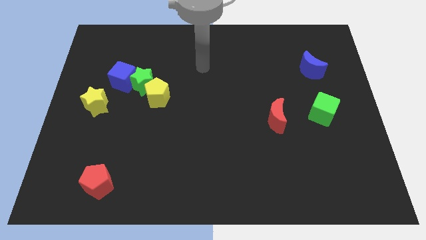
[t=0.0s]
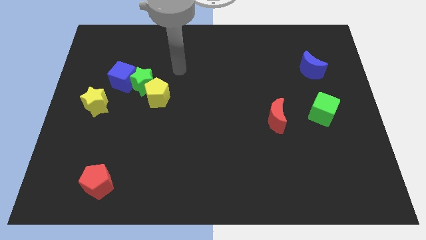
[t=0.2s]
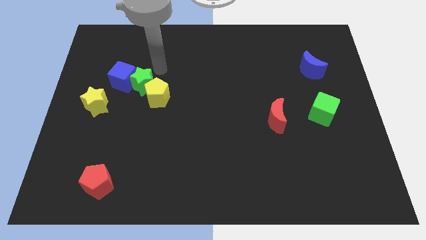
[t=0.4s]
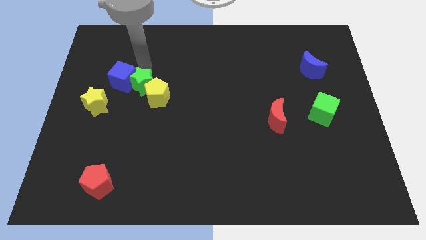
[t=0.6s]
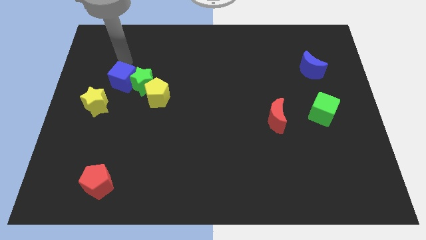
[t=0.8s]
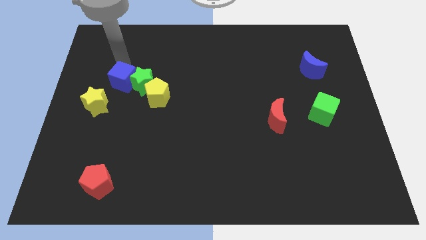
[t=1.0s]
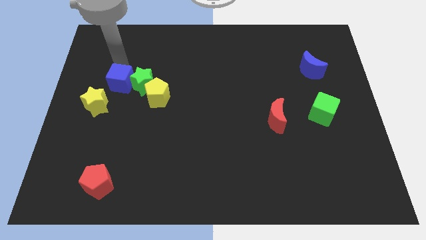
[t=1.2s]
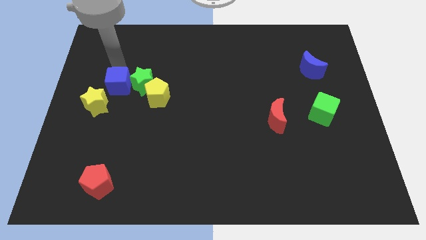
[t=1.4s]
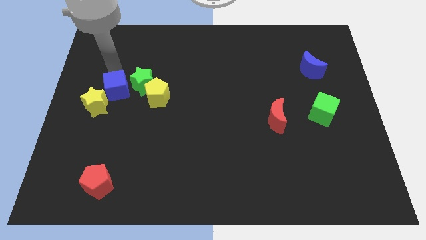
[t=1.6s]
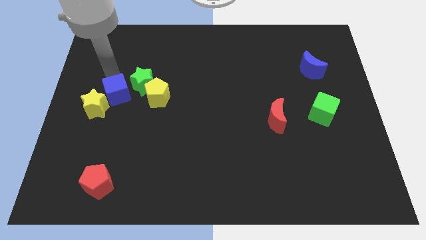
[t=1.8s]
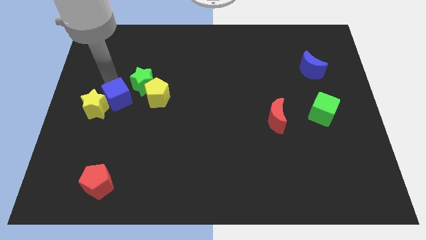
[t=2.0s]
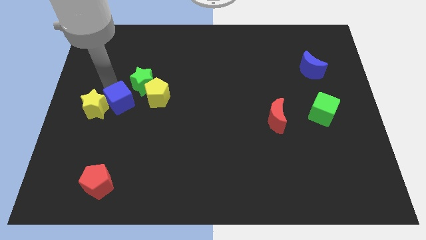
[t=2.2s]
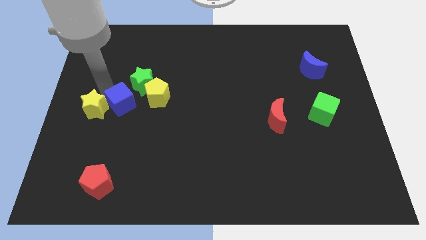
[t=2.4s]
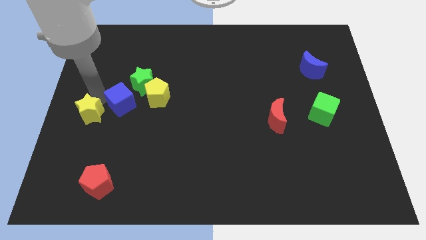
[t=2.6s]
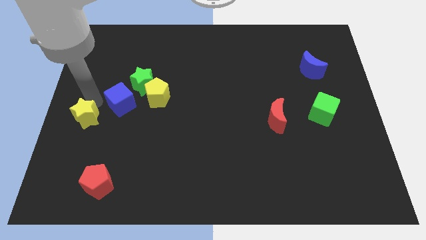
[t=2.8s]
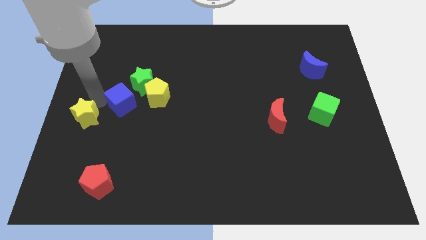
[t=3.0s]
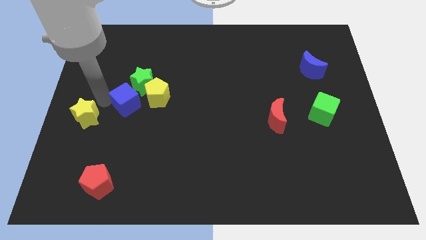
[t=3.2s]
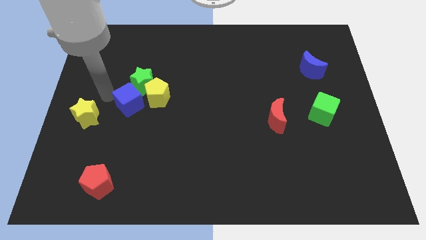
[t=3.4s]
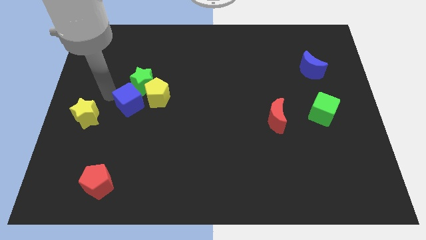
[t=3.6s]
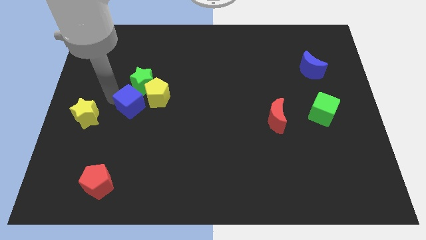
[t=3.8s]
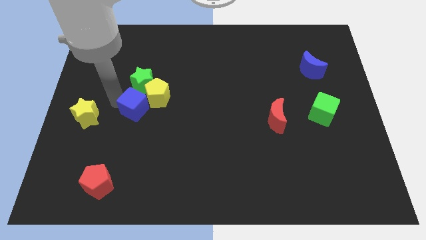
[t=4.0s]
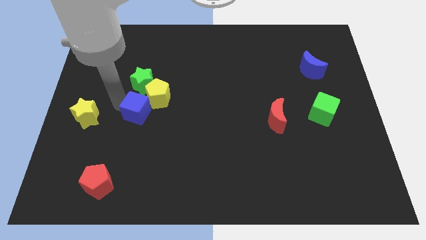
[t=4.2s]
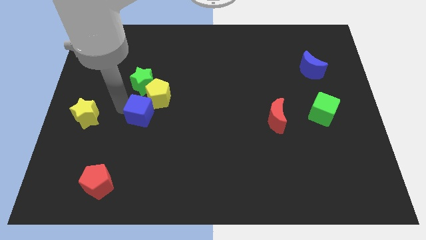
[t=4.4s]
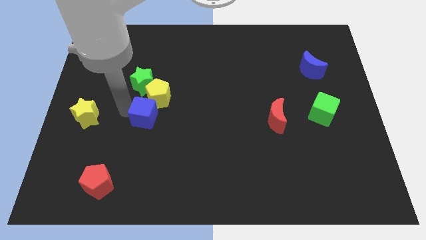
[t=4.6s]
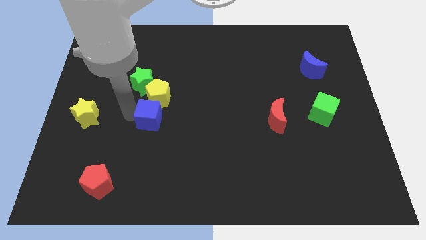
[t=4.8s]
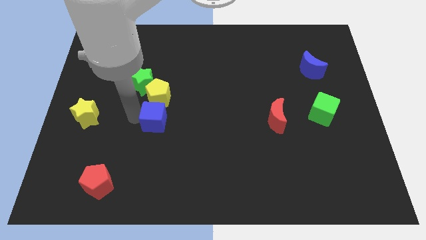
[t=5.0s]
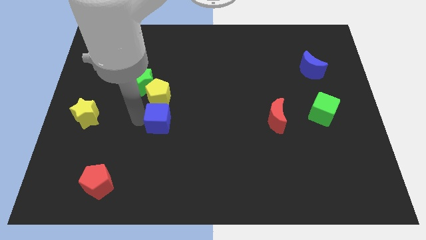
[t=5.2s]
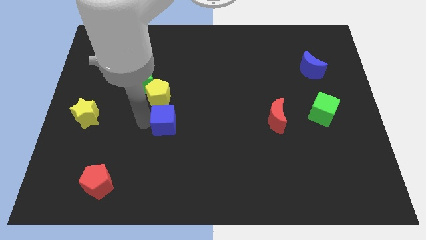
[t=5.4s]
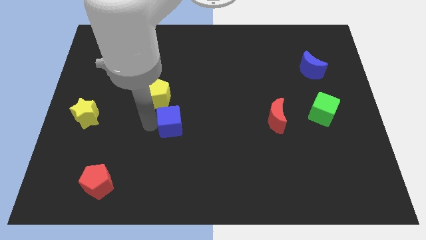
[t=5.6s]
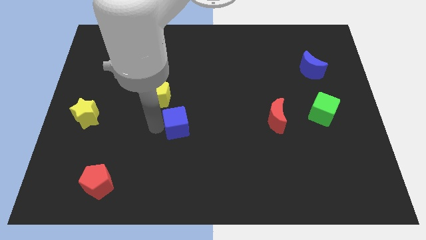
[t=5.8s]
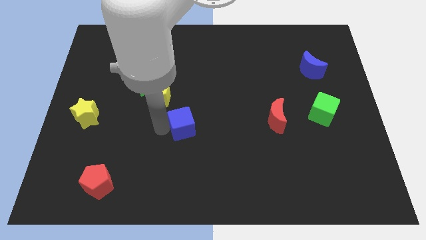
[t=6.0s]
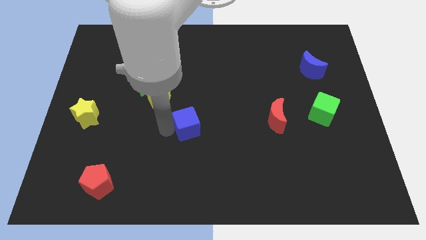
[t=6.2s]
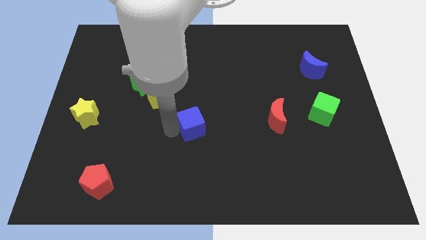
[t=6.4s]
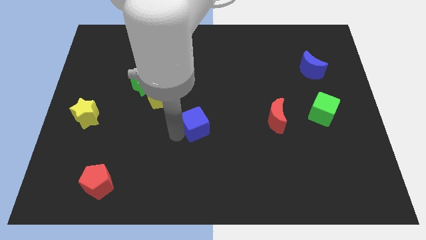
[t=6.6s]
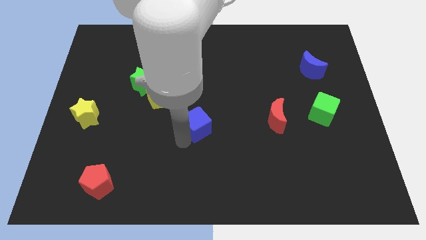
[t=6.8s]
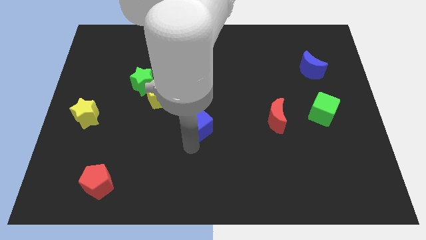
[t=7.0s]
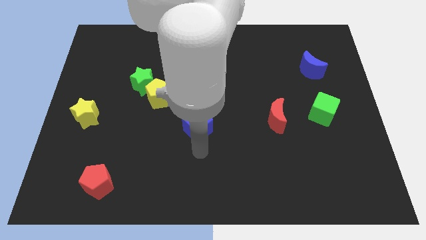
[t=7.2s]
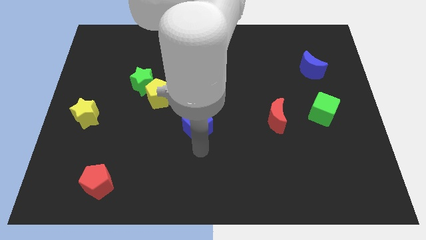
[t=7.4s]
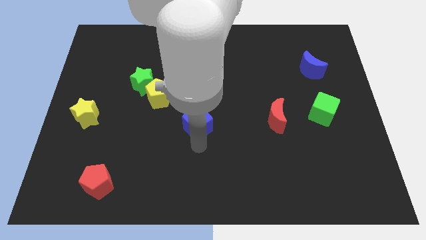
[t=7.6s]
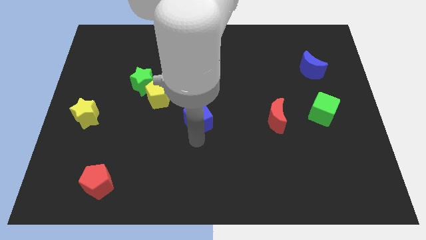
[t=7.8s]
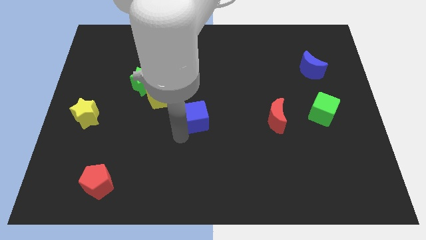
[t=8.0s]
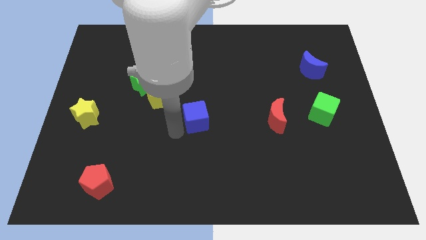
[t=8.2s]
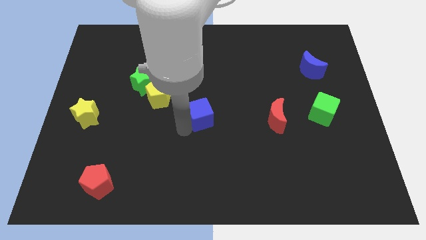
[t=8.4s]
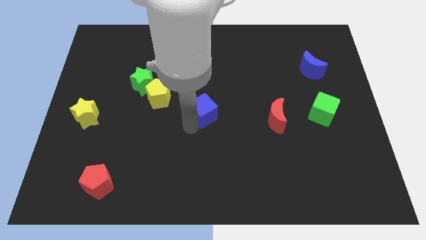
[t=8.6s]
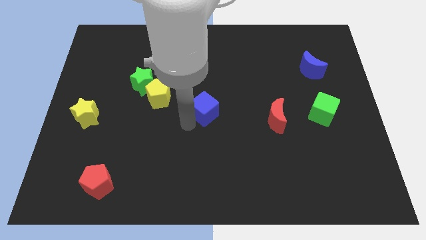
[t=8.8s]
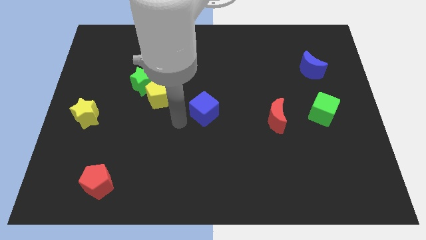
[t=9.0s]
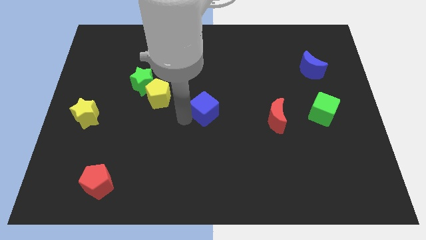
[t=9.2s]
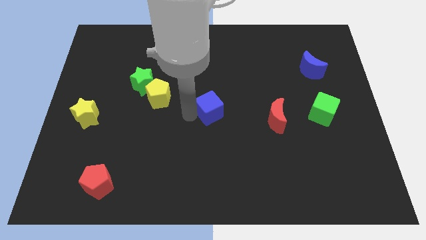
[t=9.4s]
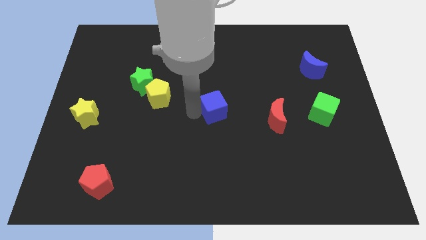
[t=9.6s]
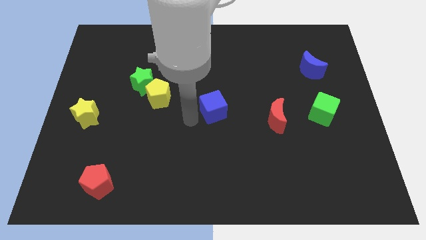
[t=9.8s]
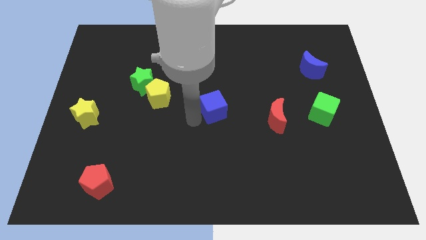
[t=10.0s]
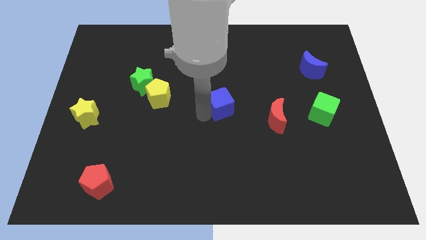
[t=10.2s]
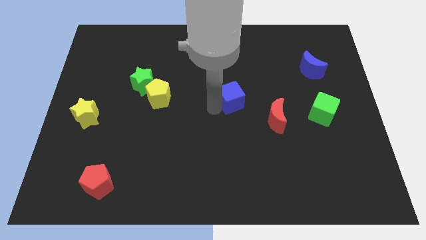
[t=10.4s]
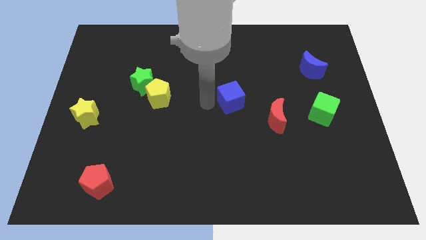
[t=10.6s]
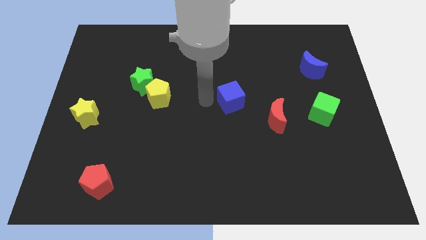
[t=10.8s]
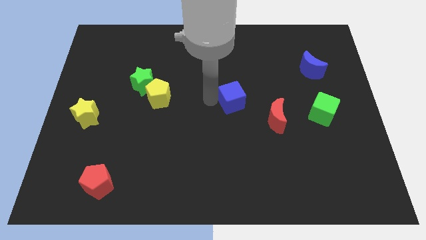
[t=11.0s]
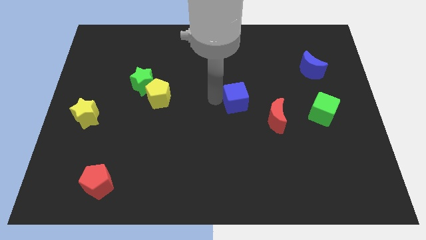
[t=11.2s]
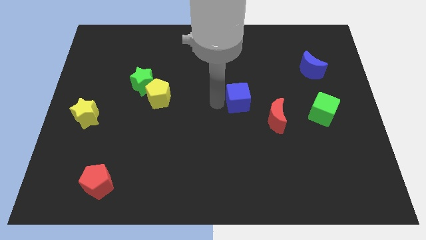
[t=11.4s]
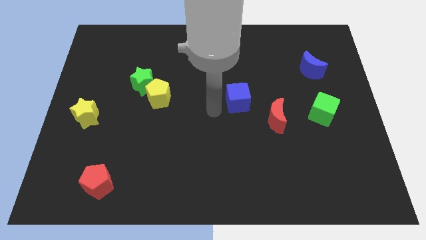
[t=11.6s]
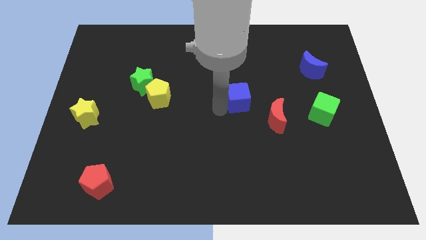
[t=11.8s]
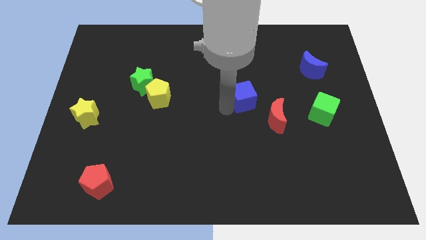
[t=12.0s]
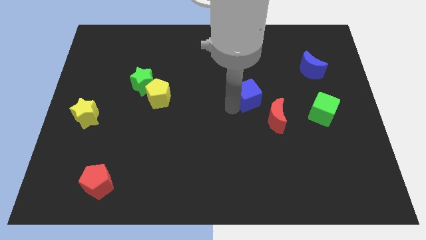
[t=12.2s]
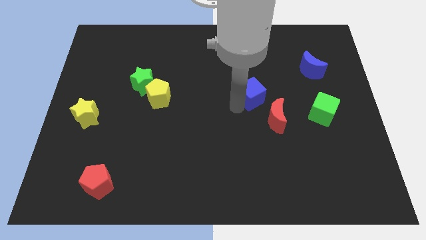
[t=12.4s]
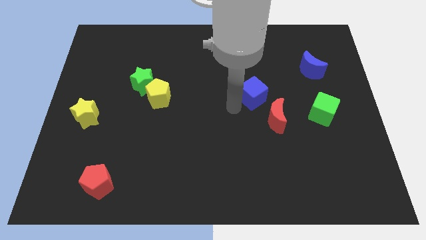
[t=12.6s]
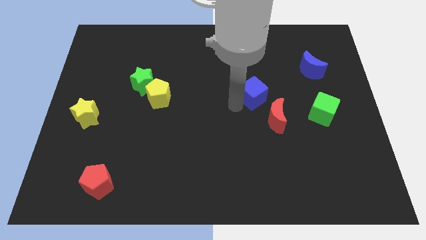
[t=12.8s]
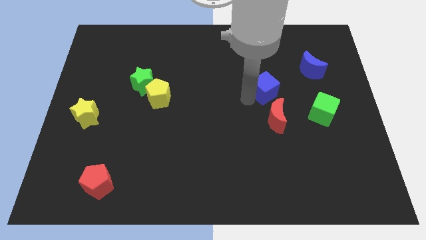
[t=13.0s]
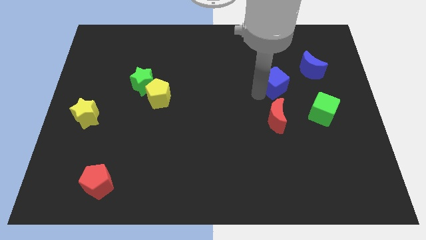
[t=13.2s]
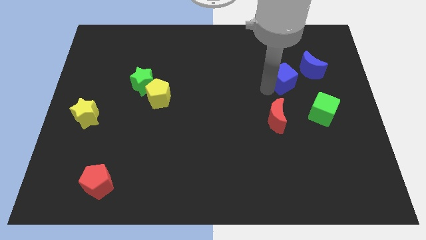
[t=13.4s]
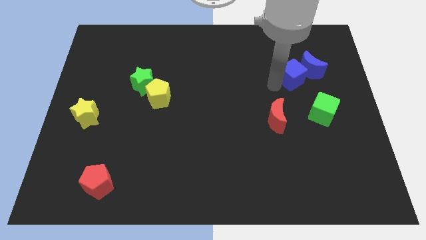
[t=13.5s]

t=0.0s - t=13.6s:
slide the blue cube next to the blue moon

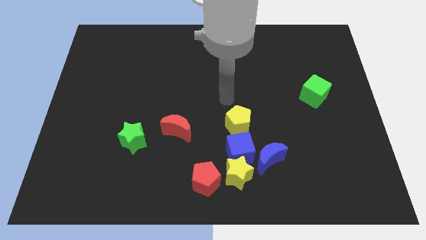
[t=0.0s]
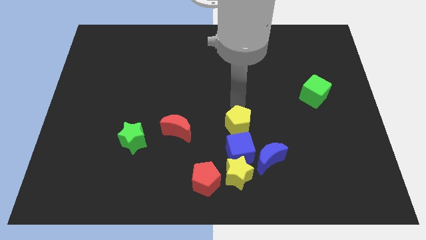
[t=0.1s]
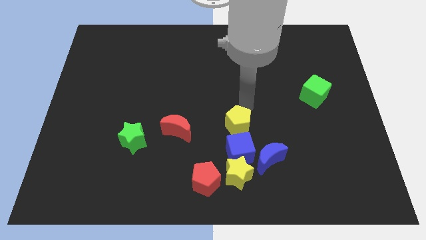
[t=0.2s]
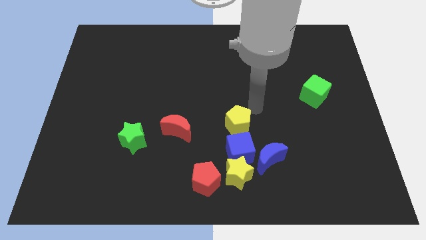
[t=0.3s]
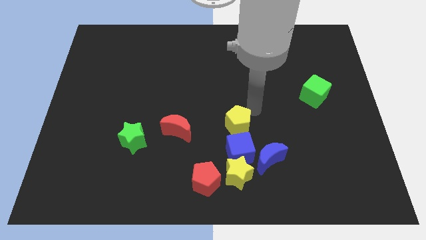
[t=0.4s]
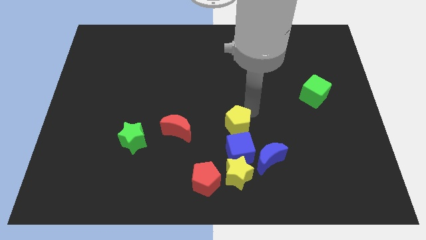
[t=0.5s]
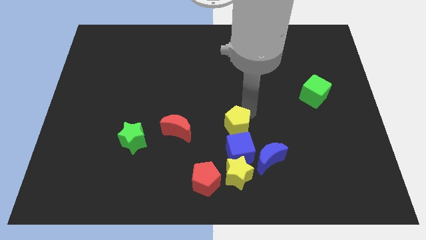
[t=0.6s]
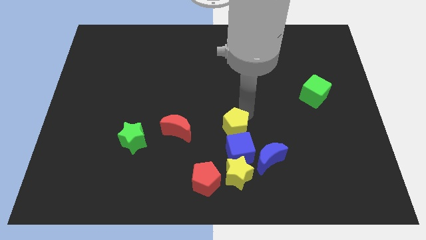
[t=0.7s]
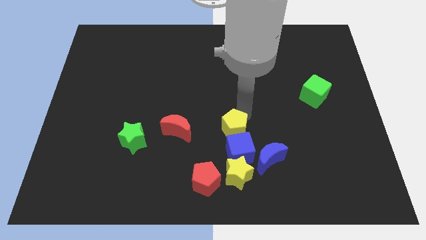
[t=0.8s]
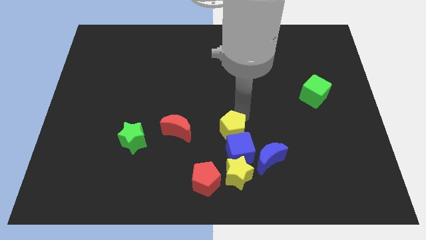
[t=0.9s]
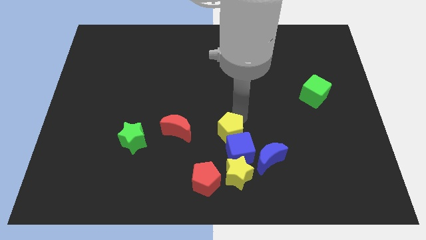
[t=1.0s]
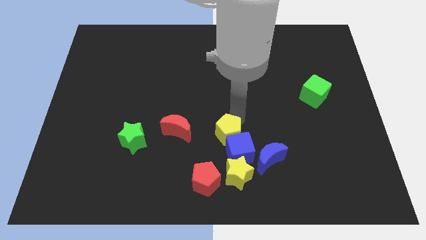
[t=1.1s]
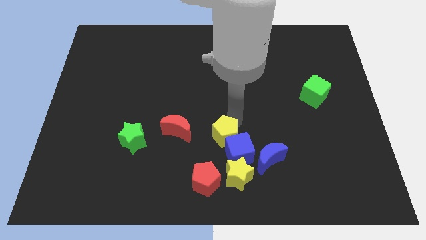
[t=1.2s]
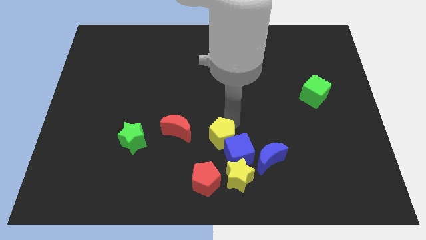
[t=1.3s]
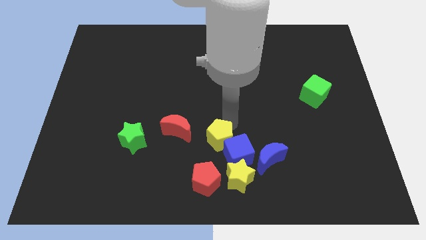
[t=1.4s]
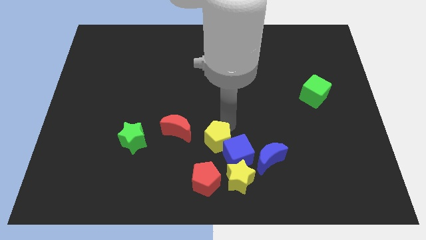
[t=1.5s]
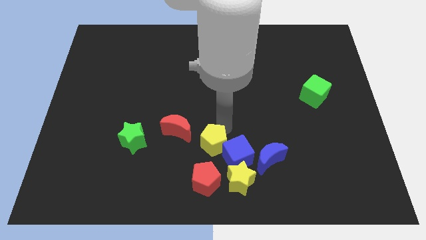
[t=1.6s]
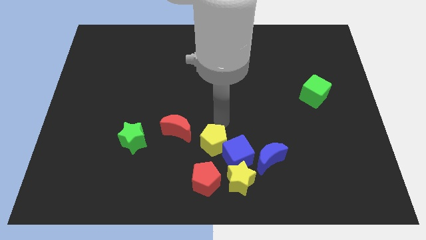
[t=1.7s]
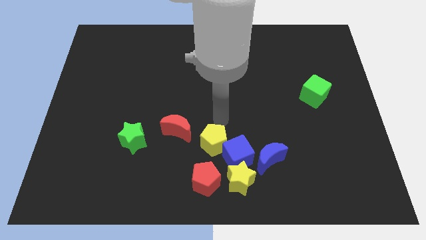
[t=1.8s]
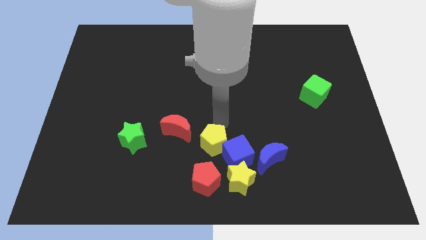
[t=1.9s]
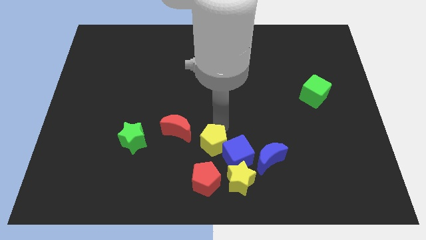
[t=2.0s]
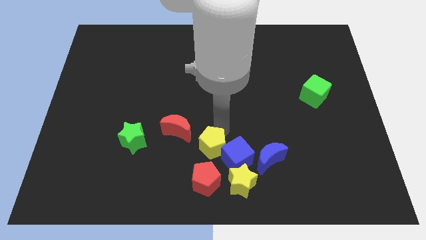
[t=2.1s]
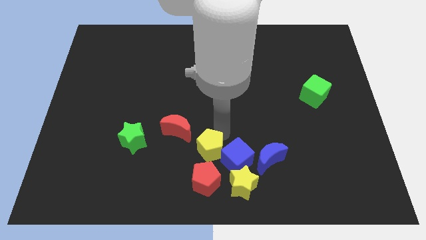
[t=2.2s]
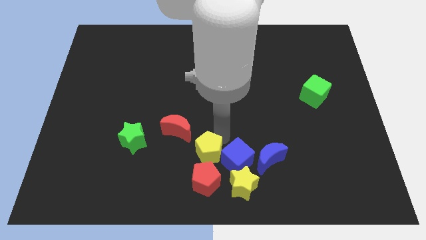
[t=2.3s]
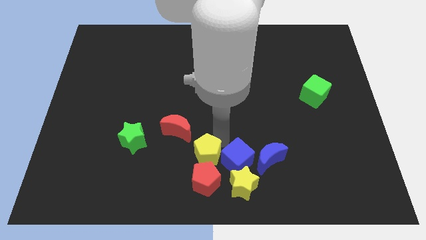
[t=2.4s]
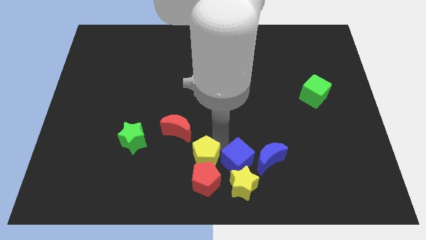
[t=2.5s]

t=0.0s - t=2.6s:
move the yellow pentagon to the red pentagon
